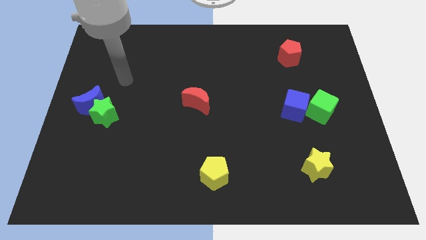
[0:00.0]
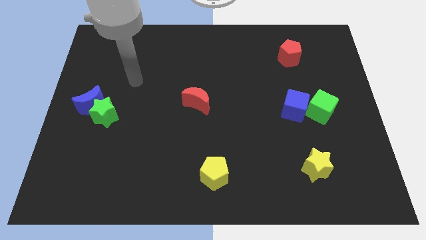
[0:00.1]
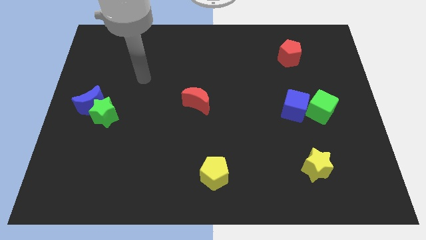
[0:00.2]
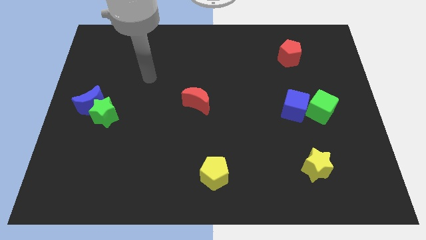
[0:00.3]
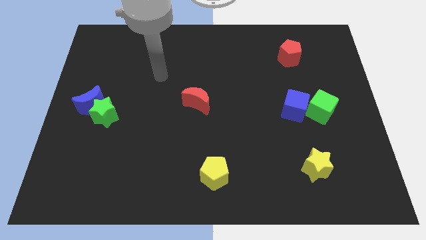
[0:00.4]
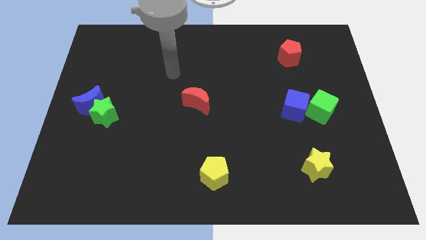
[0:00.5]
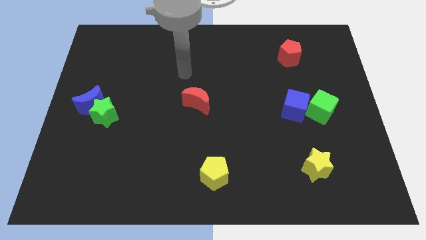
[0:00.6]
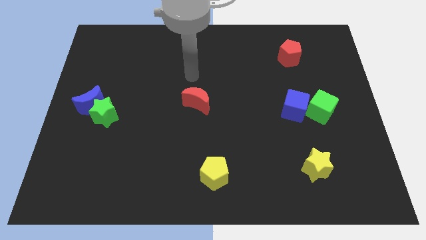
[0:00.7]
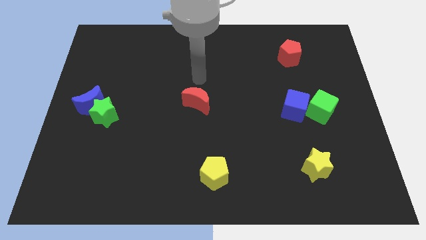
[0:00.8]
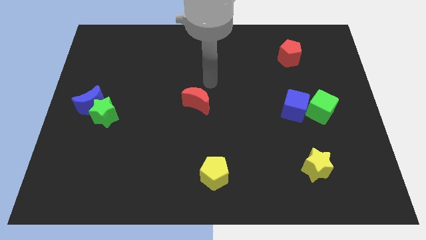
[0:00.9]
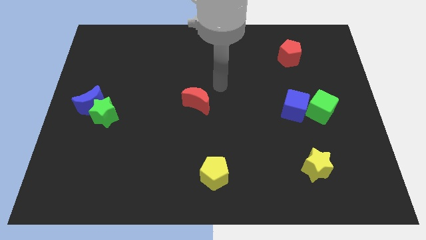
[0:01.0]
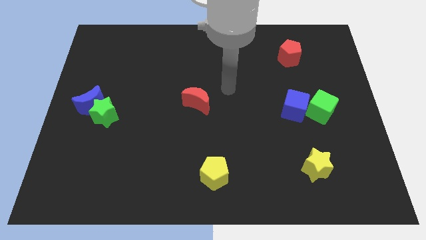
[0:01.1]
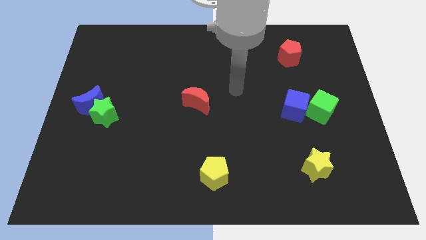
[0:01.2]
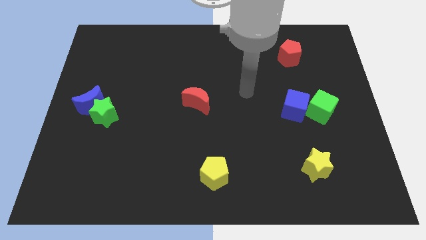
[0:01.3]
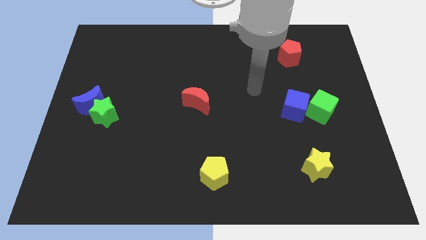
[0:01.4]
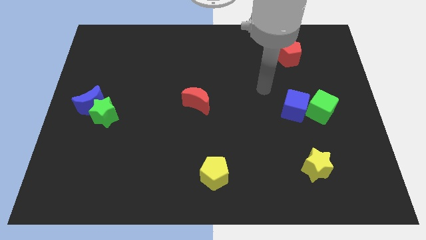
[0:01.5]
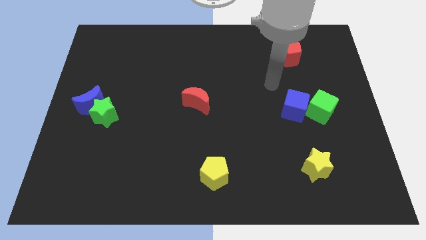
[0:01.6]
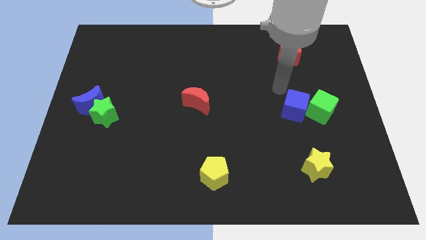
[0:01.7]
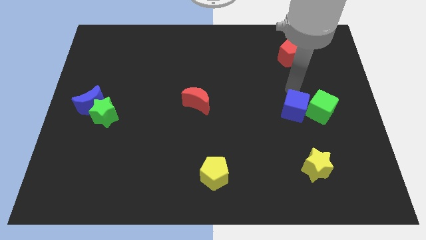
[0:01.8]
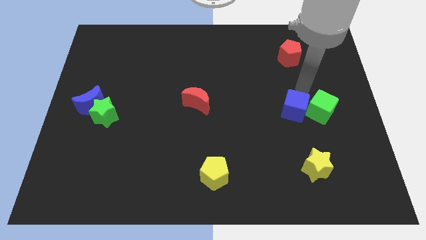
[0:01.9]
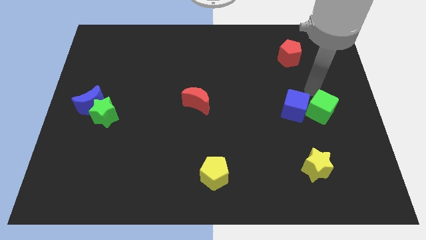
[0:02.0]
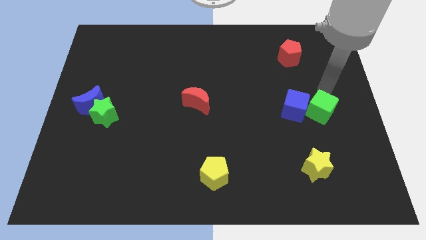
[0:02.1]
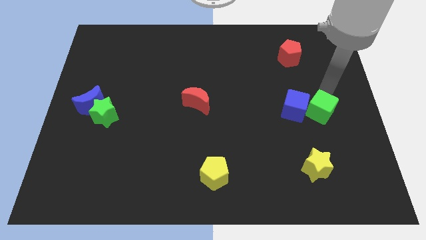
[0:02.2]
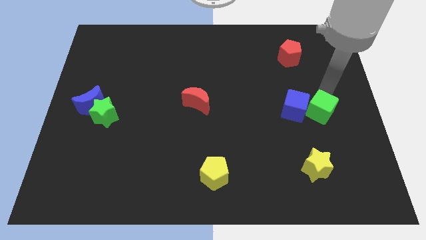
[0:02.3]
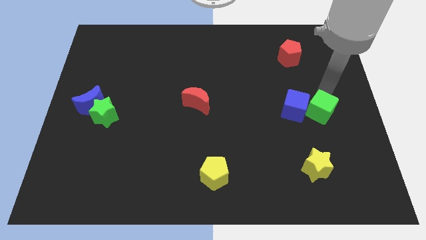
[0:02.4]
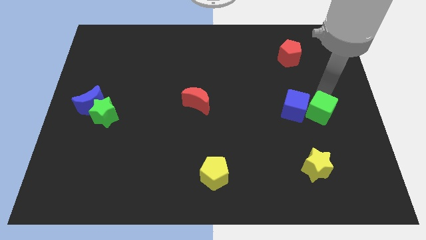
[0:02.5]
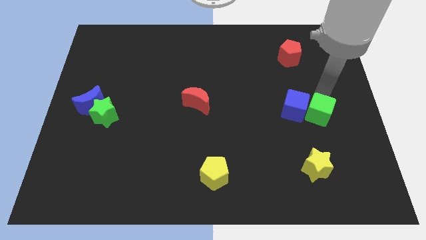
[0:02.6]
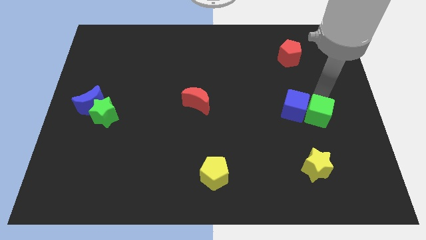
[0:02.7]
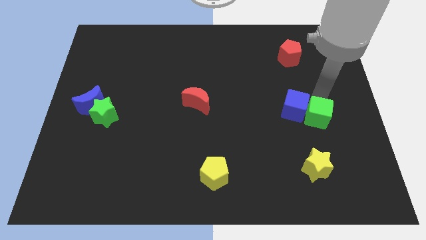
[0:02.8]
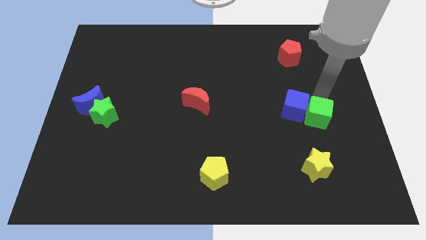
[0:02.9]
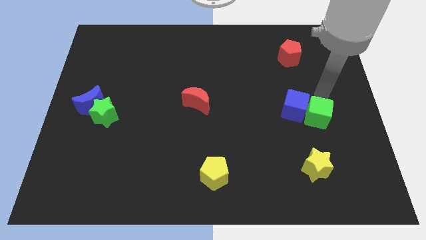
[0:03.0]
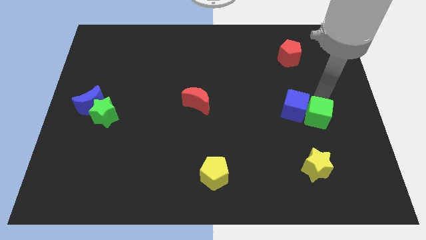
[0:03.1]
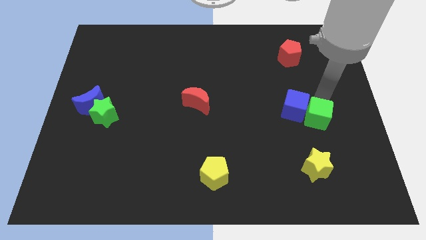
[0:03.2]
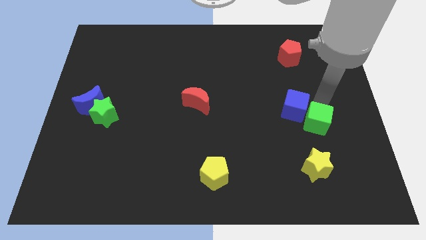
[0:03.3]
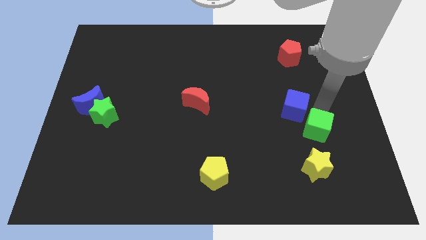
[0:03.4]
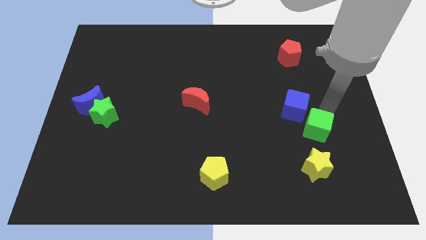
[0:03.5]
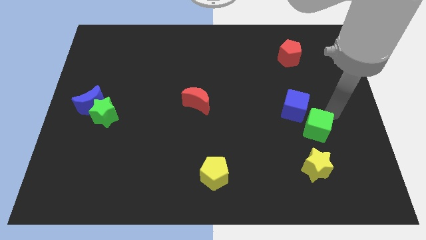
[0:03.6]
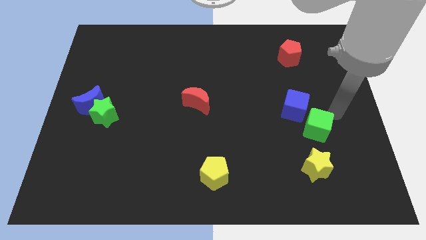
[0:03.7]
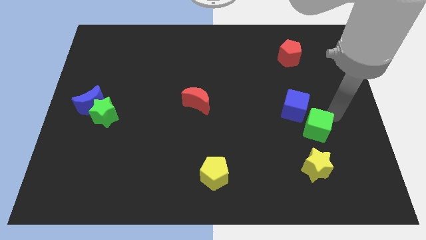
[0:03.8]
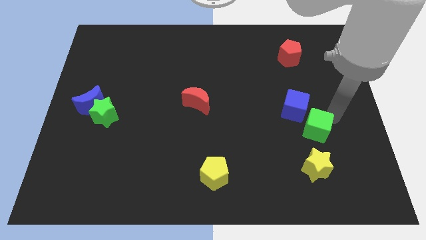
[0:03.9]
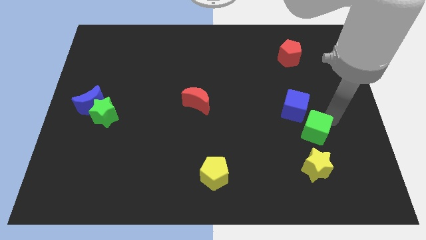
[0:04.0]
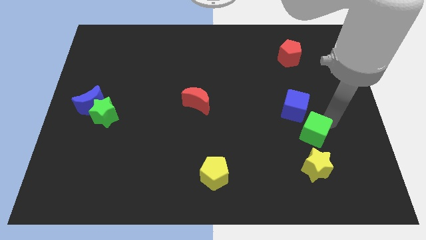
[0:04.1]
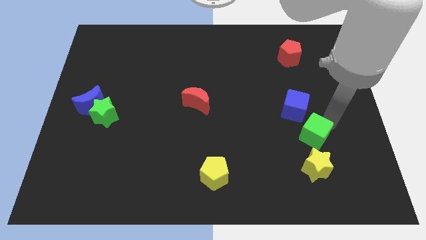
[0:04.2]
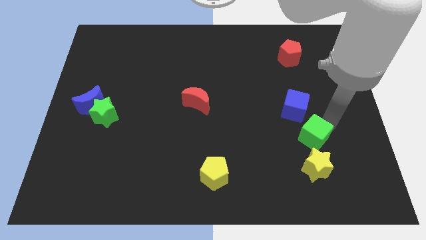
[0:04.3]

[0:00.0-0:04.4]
slide the green cube a bit diagonally down and left

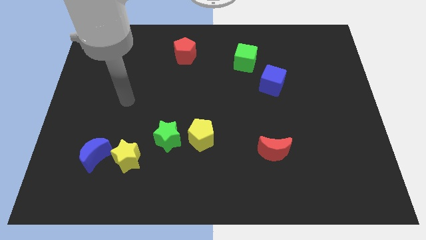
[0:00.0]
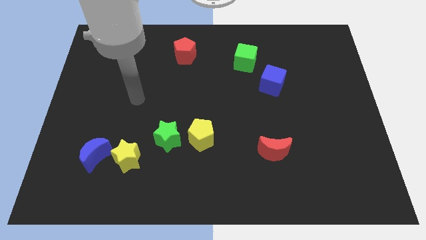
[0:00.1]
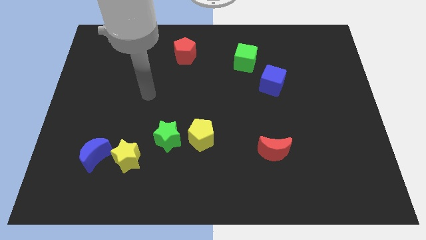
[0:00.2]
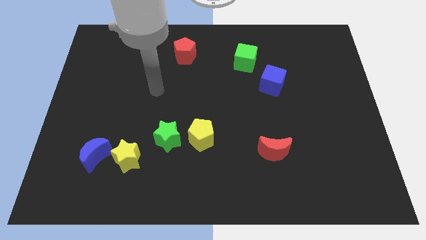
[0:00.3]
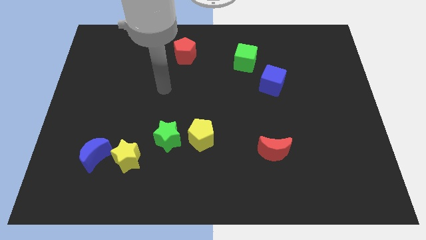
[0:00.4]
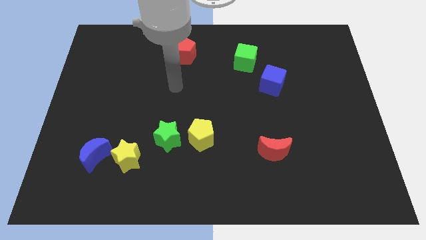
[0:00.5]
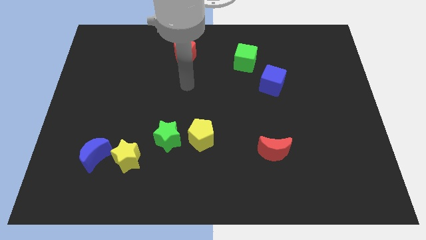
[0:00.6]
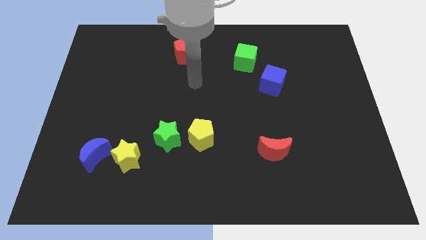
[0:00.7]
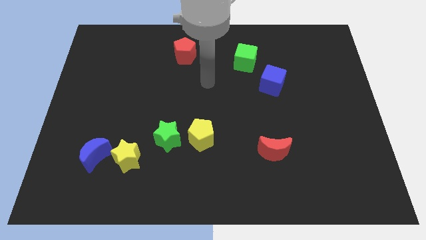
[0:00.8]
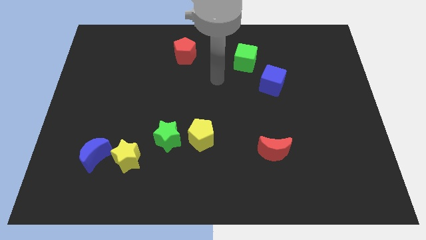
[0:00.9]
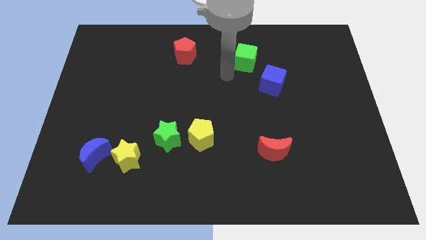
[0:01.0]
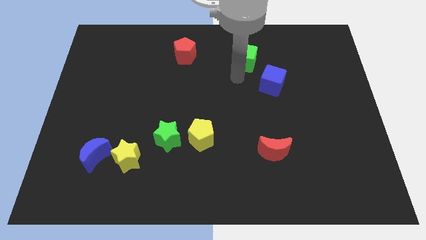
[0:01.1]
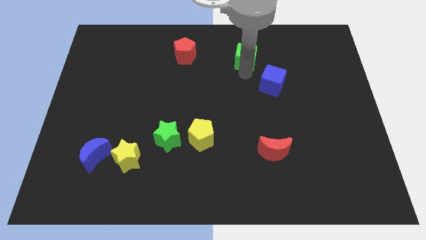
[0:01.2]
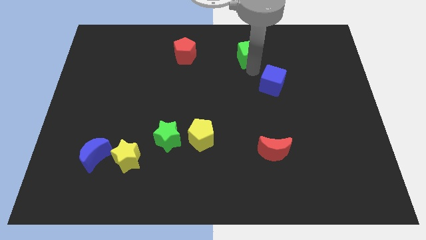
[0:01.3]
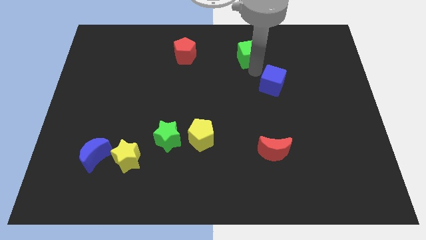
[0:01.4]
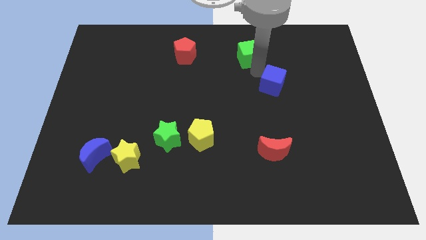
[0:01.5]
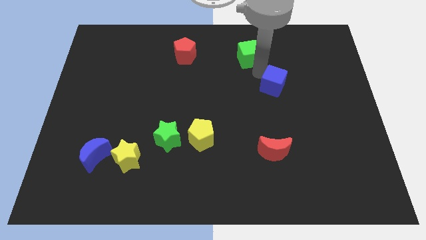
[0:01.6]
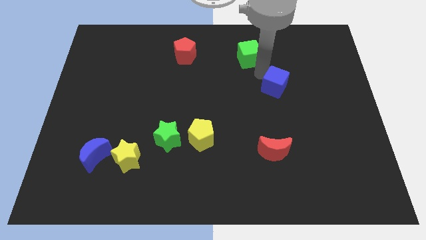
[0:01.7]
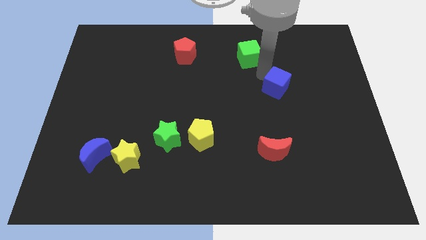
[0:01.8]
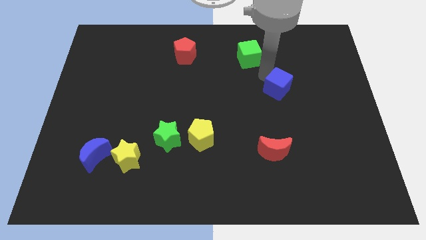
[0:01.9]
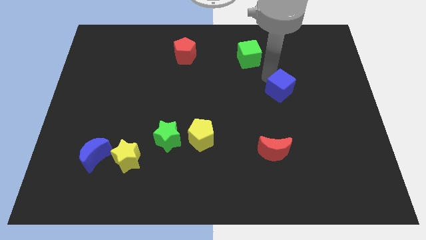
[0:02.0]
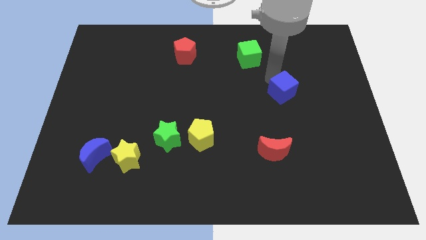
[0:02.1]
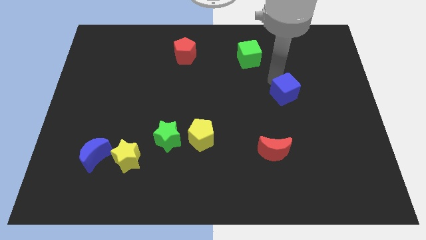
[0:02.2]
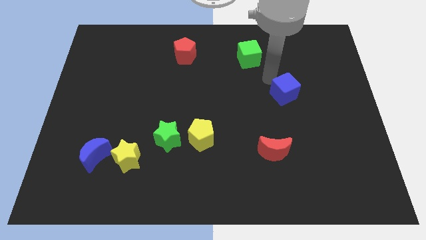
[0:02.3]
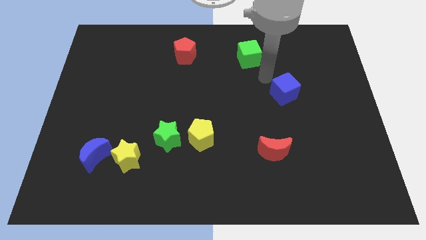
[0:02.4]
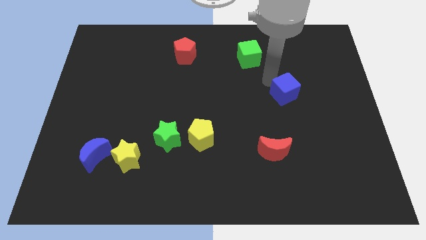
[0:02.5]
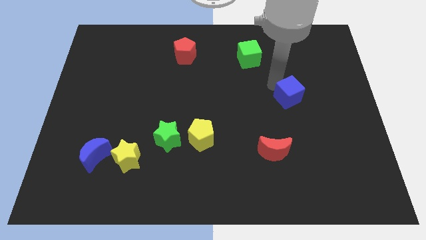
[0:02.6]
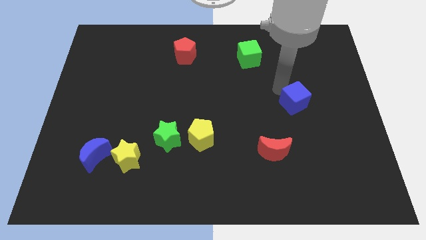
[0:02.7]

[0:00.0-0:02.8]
slide the blue cube a little bit down and right

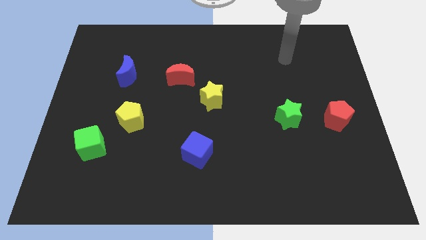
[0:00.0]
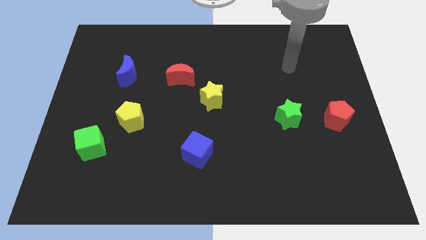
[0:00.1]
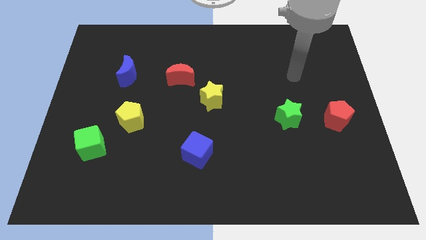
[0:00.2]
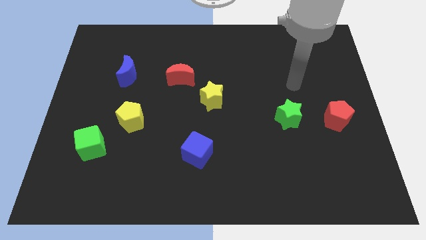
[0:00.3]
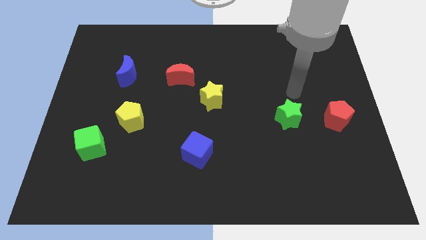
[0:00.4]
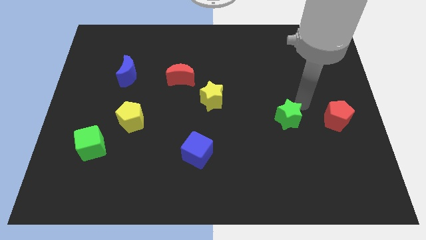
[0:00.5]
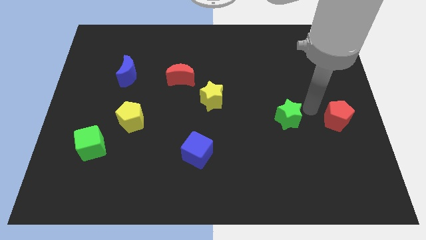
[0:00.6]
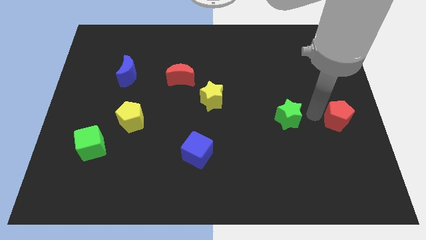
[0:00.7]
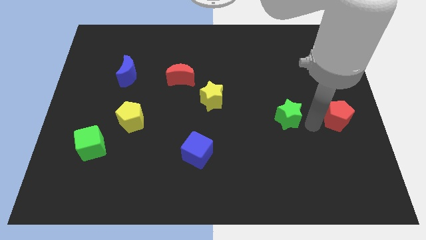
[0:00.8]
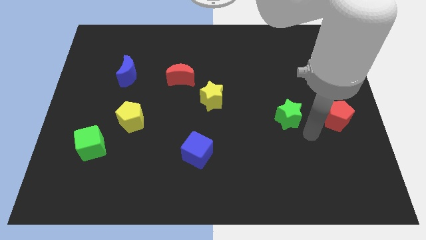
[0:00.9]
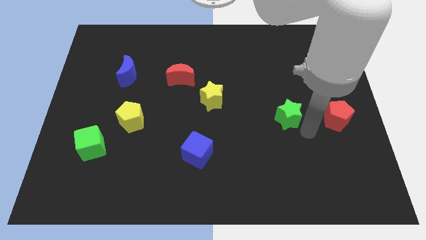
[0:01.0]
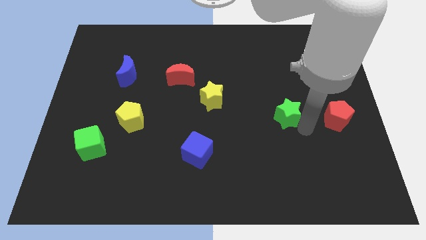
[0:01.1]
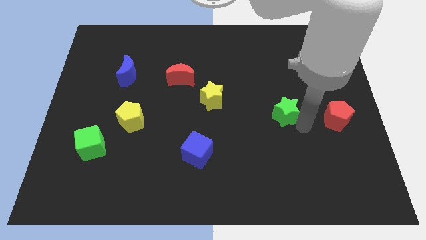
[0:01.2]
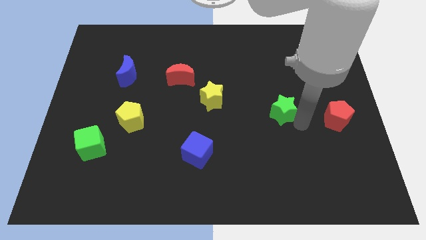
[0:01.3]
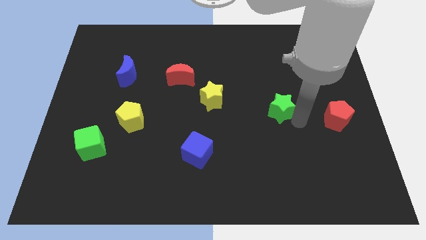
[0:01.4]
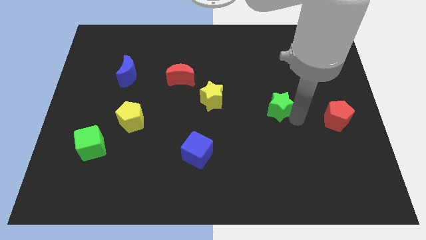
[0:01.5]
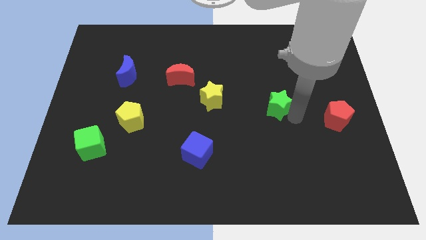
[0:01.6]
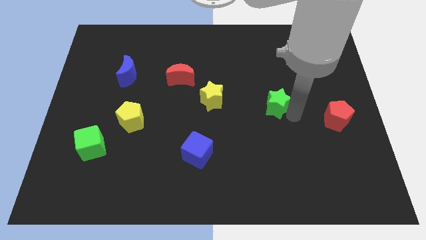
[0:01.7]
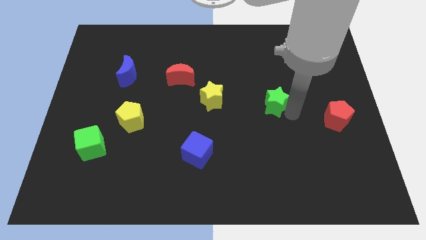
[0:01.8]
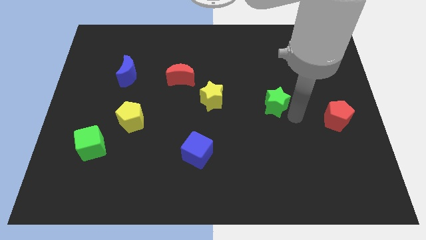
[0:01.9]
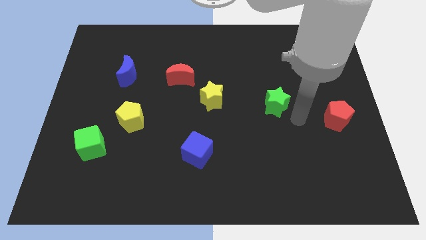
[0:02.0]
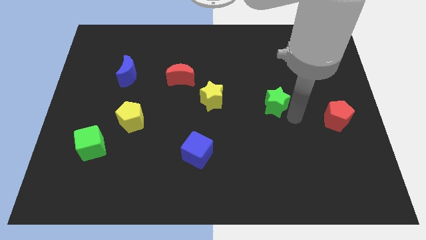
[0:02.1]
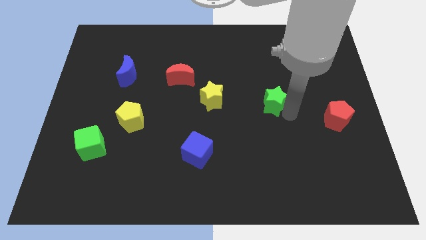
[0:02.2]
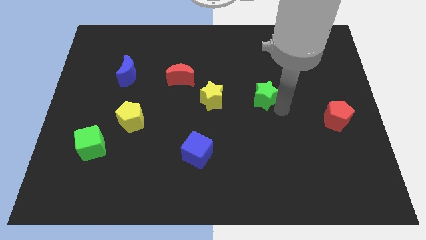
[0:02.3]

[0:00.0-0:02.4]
push the green star up and left somewhat
